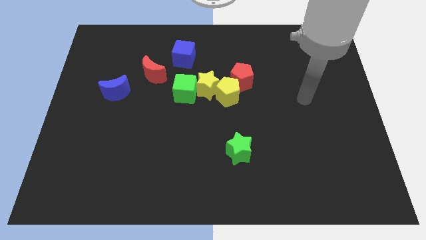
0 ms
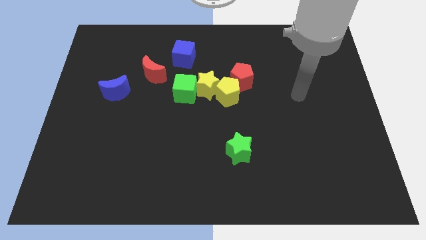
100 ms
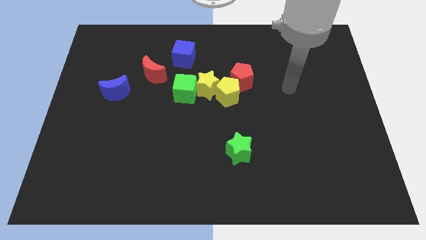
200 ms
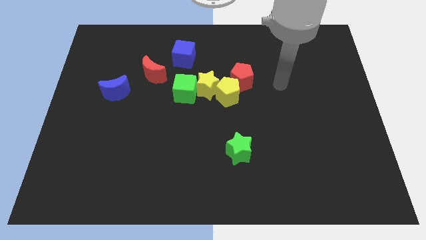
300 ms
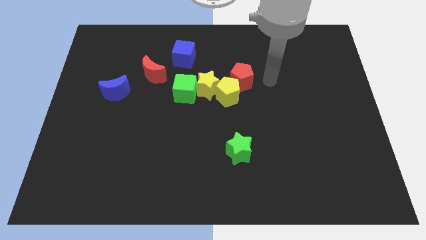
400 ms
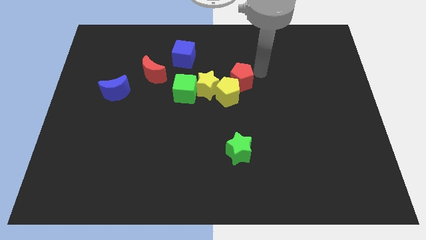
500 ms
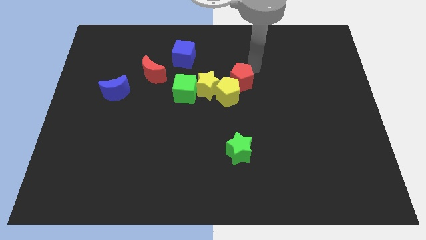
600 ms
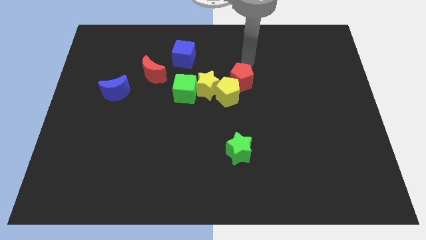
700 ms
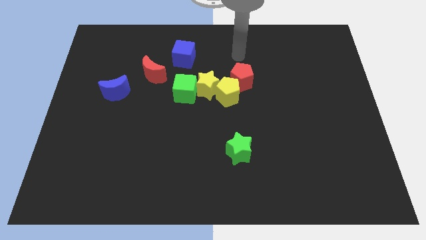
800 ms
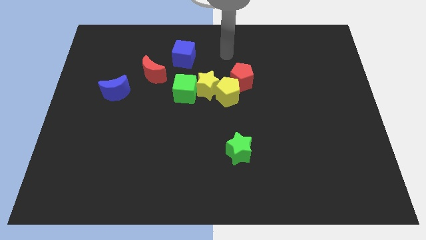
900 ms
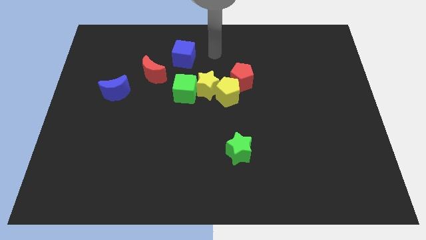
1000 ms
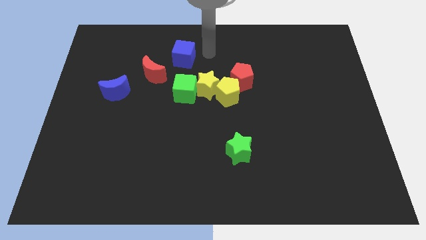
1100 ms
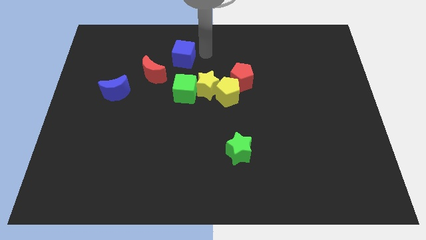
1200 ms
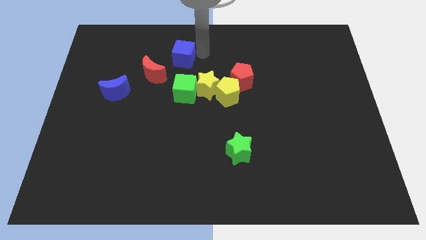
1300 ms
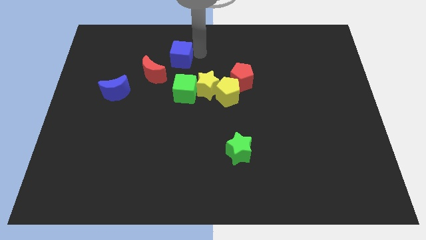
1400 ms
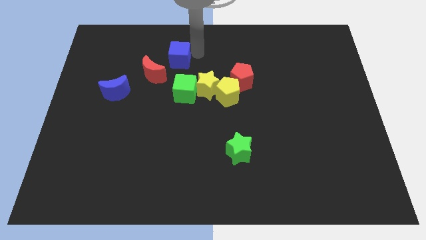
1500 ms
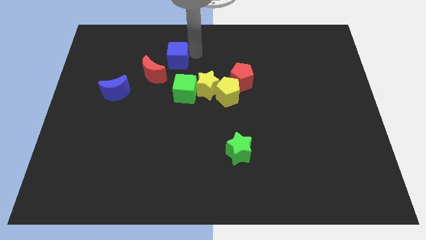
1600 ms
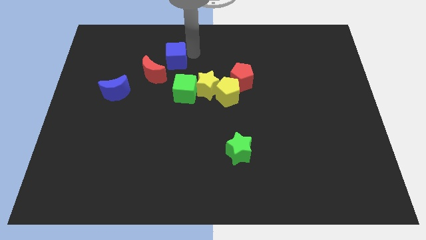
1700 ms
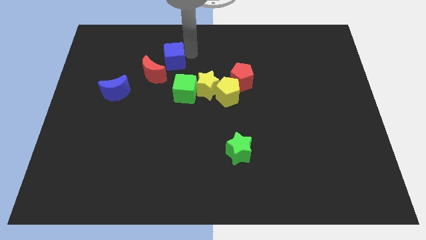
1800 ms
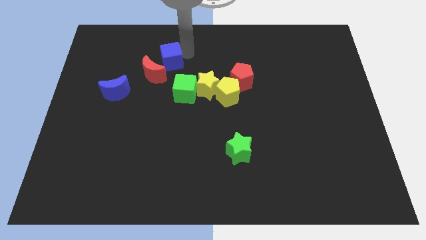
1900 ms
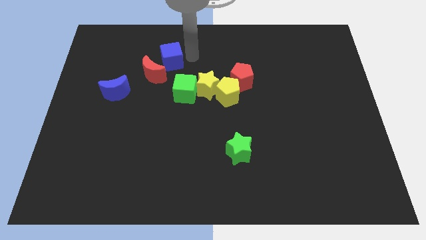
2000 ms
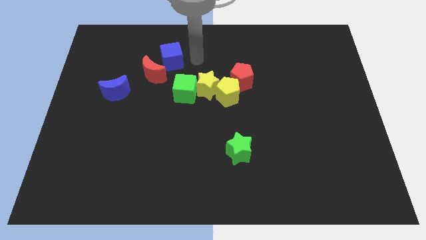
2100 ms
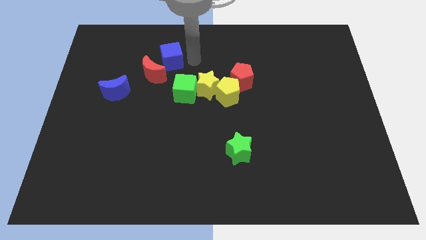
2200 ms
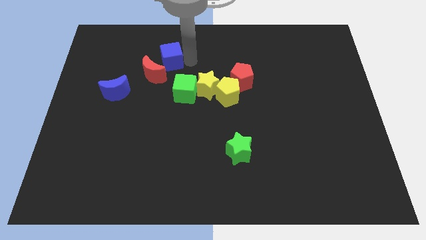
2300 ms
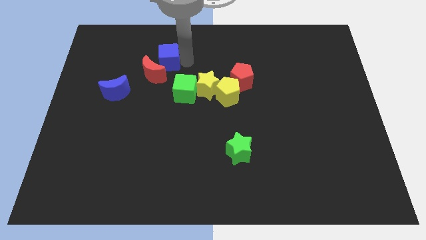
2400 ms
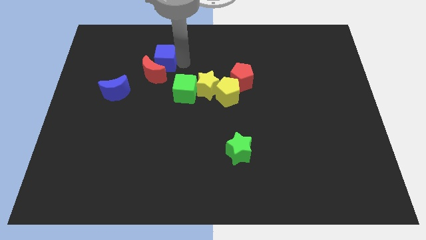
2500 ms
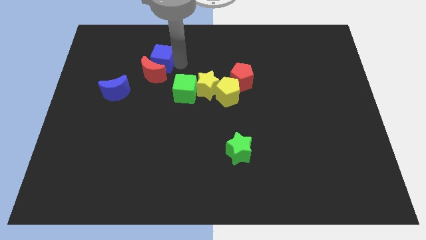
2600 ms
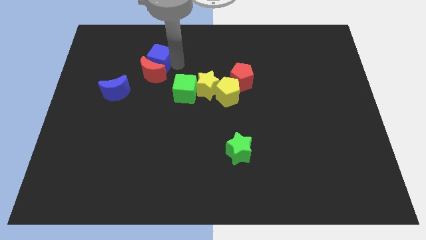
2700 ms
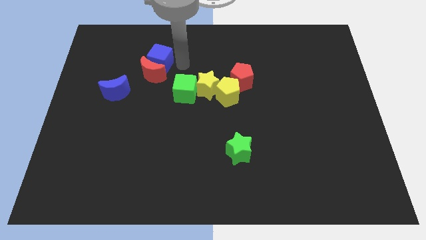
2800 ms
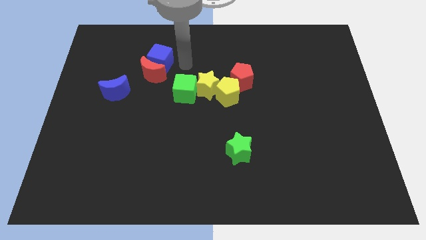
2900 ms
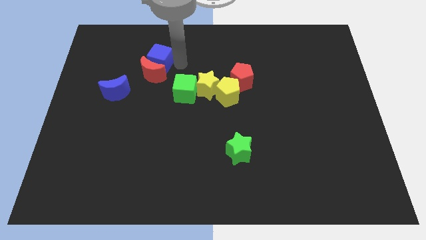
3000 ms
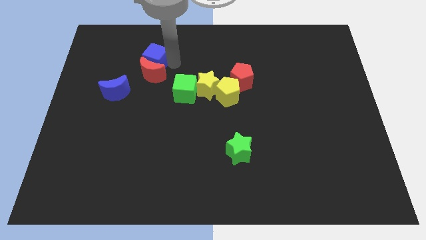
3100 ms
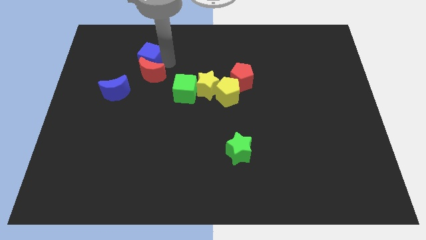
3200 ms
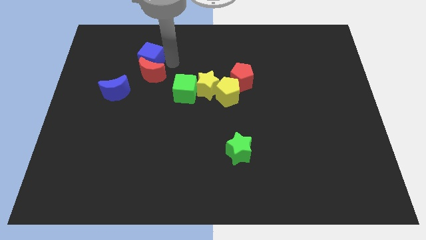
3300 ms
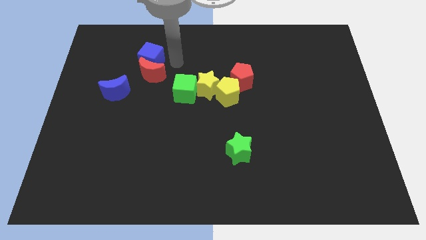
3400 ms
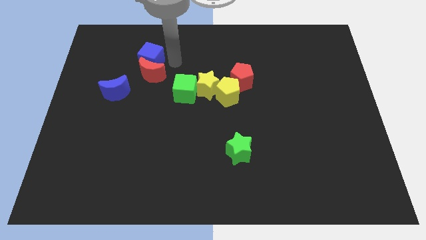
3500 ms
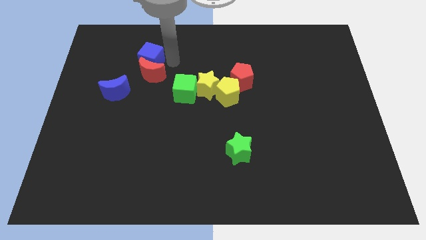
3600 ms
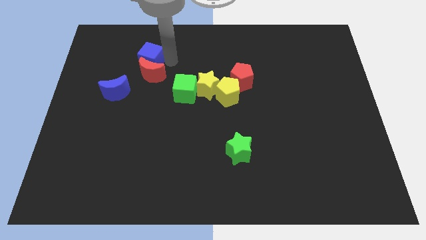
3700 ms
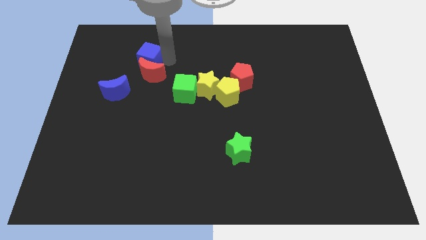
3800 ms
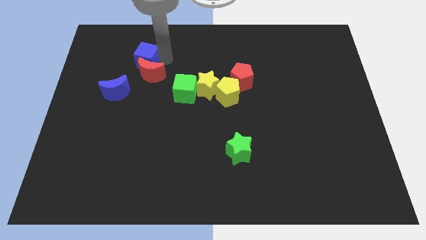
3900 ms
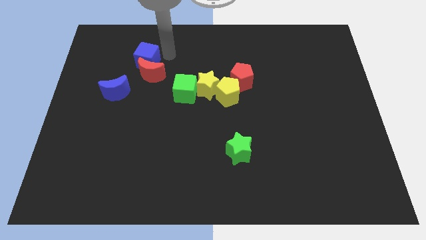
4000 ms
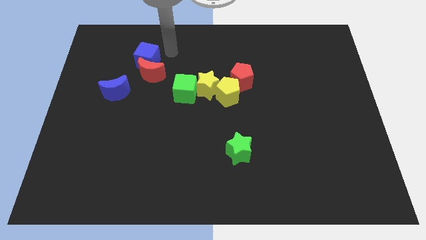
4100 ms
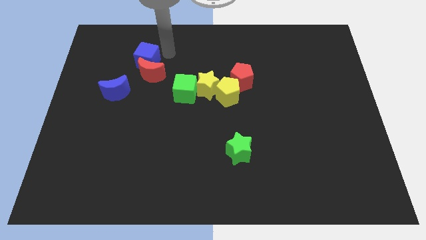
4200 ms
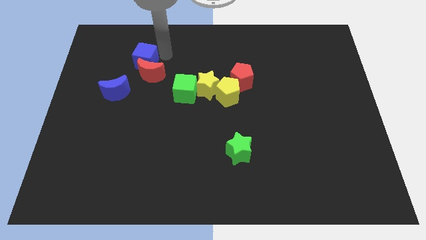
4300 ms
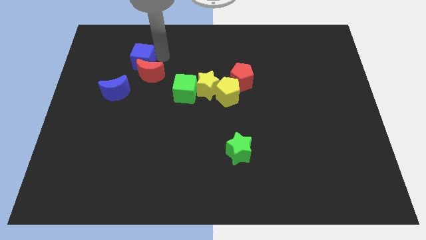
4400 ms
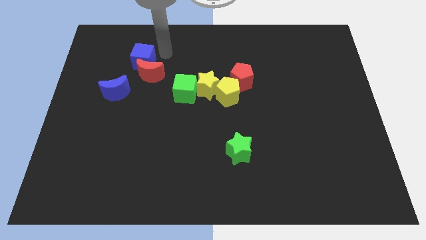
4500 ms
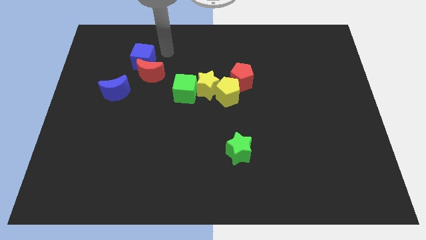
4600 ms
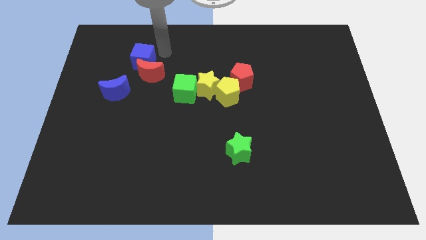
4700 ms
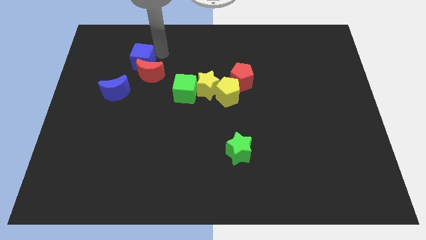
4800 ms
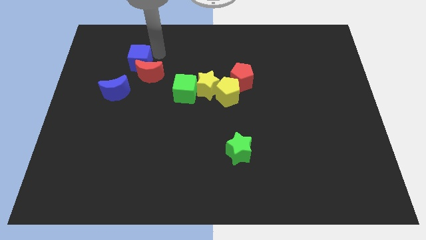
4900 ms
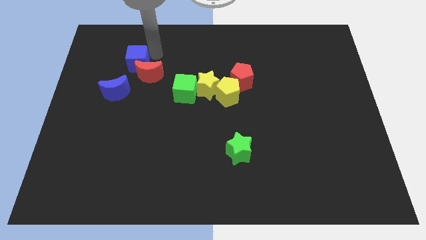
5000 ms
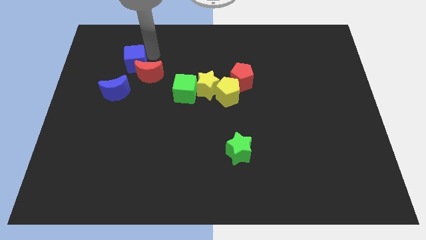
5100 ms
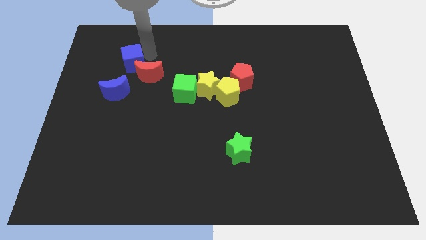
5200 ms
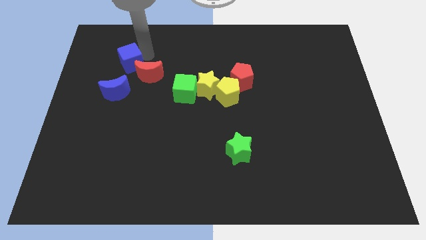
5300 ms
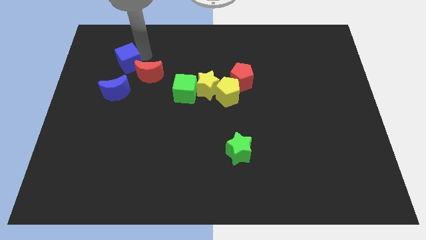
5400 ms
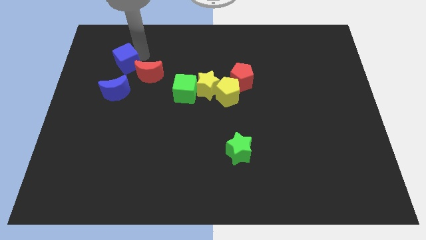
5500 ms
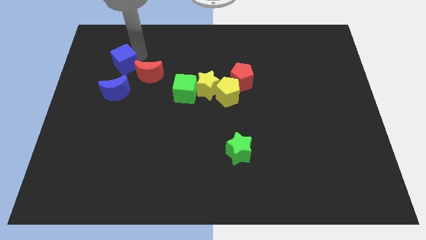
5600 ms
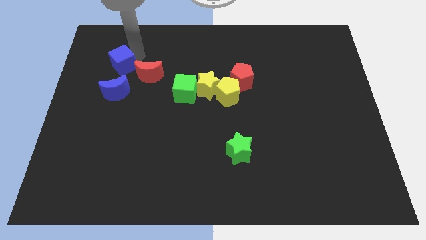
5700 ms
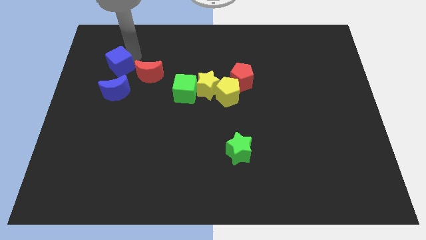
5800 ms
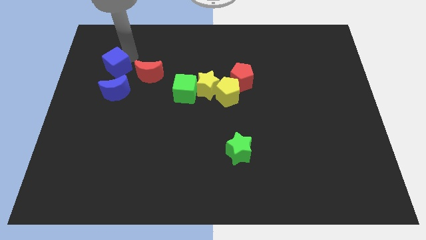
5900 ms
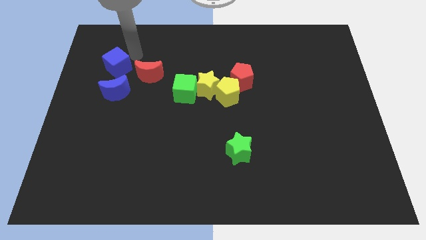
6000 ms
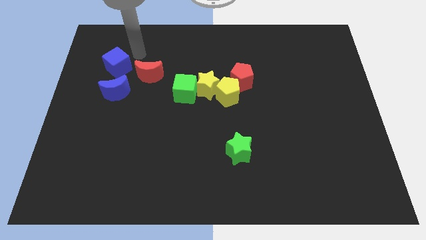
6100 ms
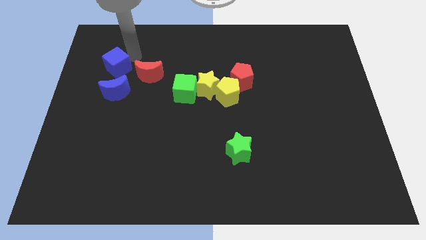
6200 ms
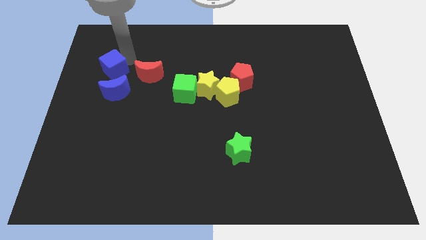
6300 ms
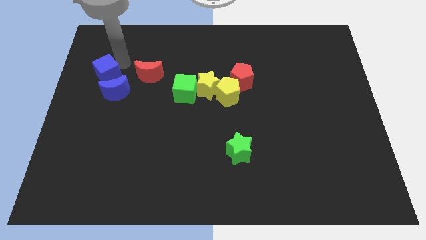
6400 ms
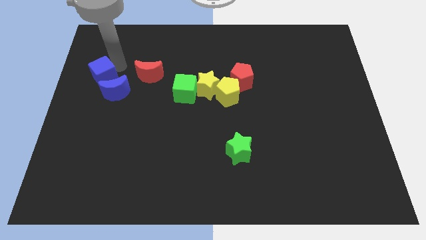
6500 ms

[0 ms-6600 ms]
slide the blue cube to the left side of the board
